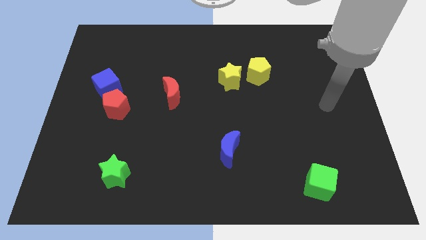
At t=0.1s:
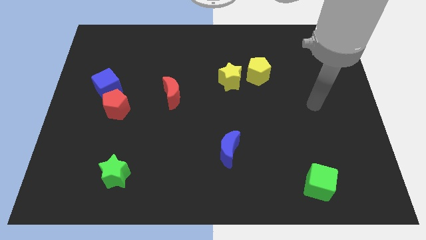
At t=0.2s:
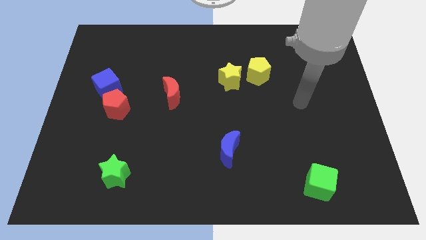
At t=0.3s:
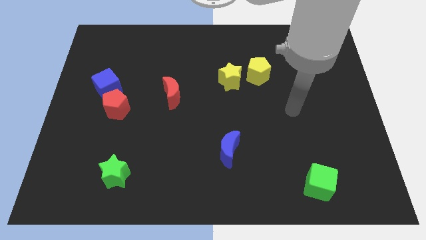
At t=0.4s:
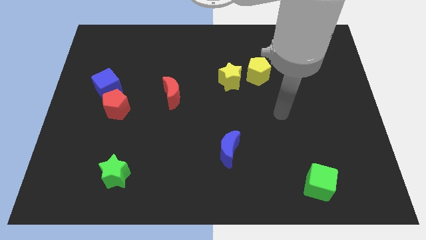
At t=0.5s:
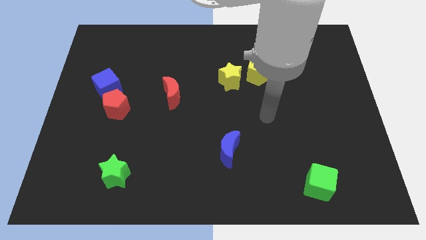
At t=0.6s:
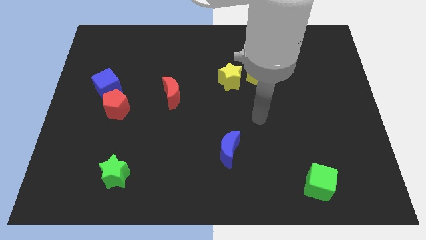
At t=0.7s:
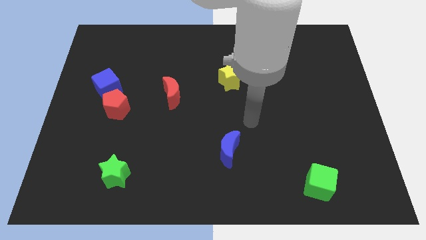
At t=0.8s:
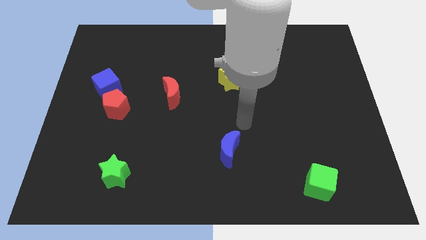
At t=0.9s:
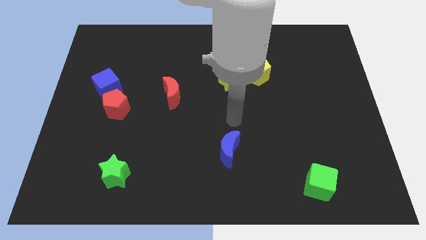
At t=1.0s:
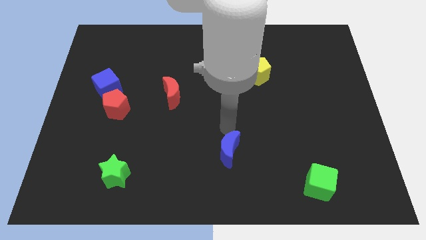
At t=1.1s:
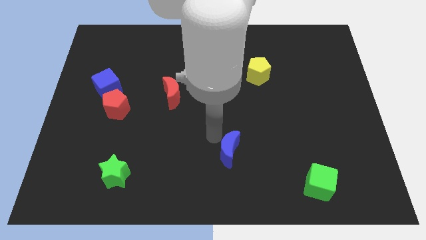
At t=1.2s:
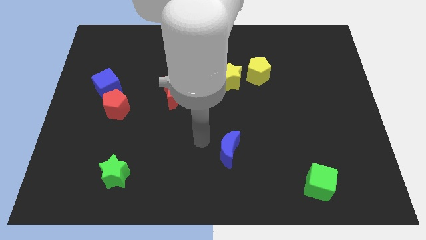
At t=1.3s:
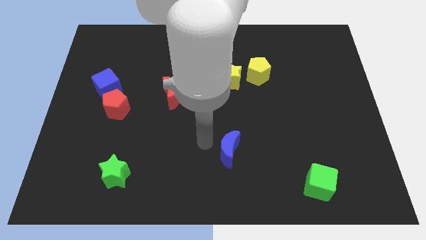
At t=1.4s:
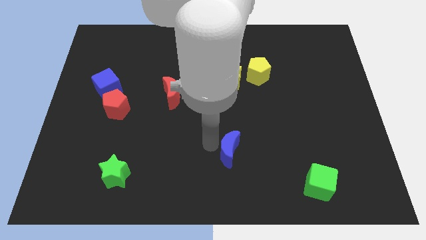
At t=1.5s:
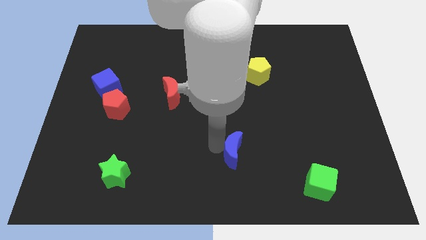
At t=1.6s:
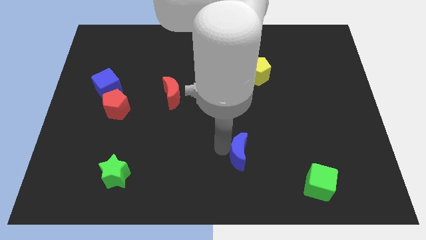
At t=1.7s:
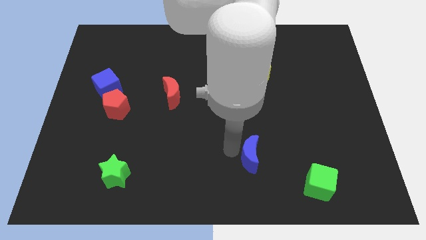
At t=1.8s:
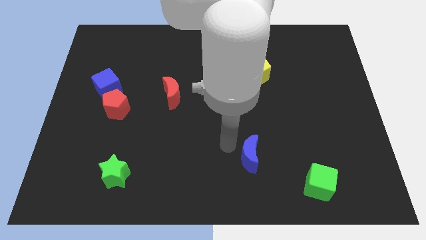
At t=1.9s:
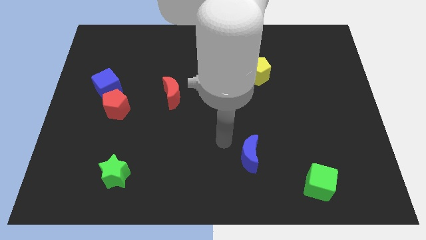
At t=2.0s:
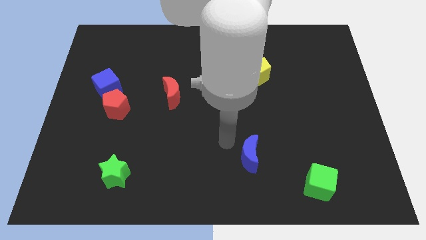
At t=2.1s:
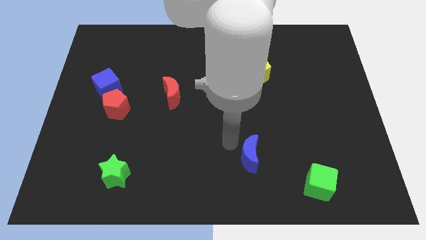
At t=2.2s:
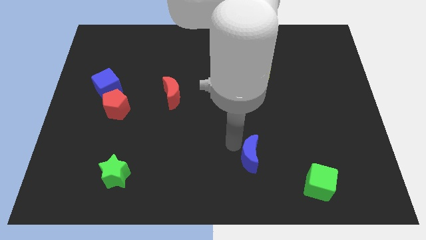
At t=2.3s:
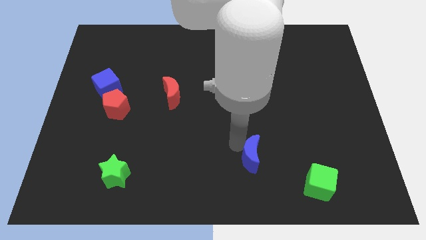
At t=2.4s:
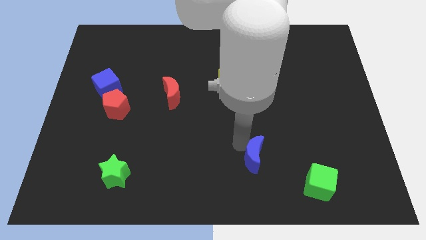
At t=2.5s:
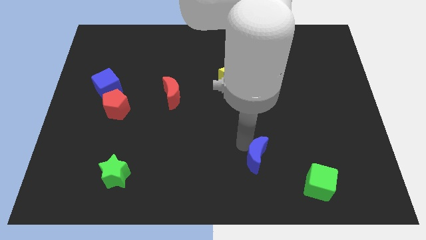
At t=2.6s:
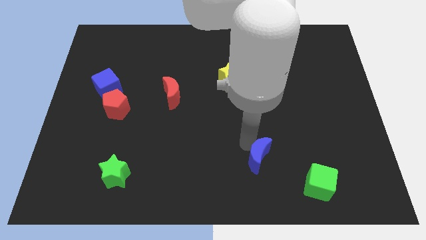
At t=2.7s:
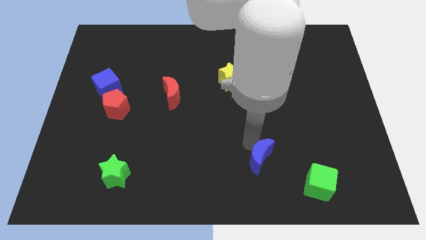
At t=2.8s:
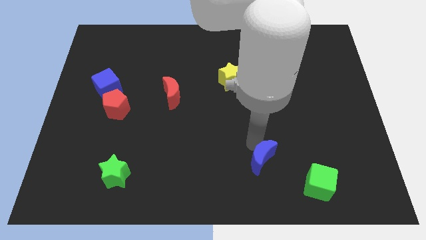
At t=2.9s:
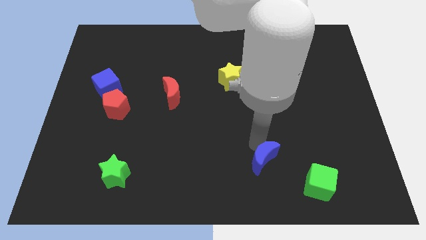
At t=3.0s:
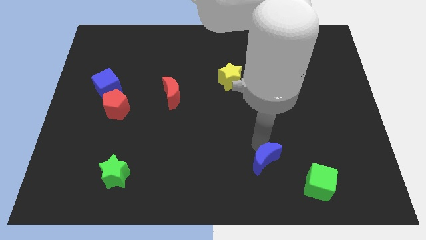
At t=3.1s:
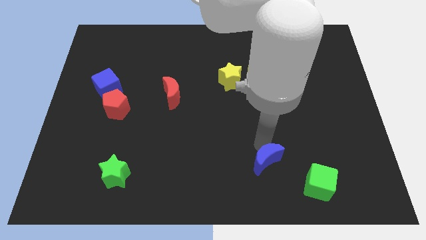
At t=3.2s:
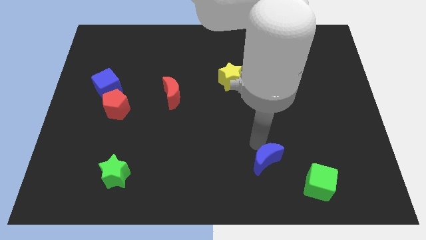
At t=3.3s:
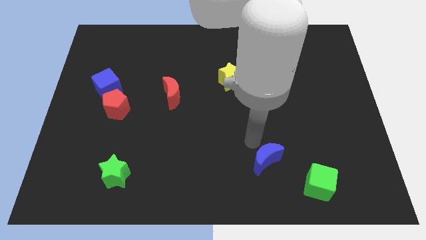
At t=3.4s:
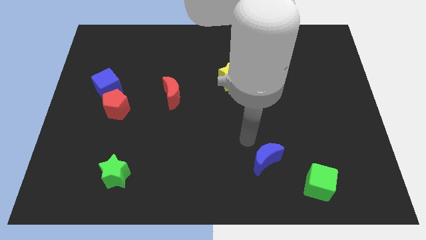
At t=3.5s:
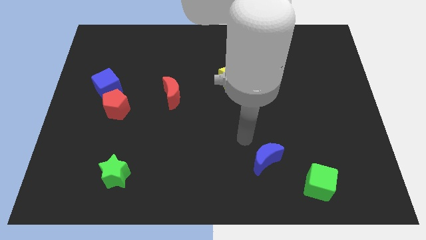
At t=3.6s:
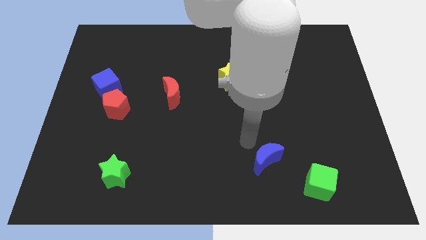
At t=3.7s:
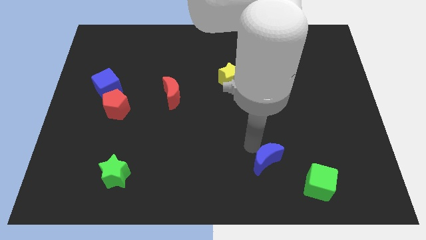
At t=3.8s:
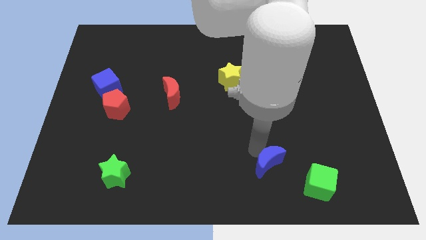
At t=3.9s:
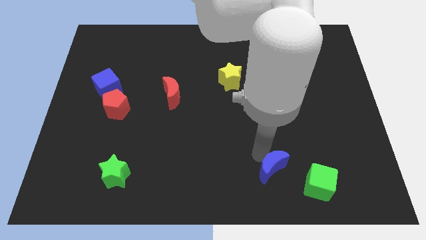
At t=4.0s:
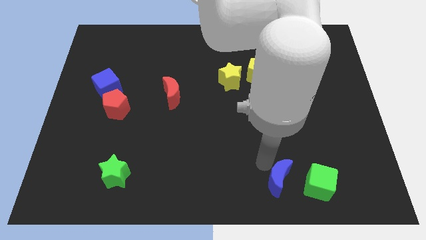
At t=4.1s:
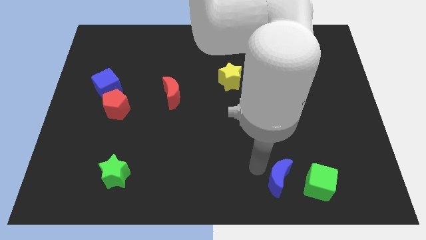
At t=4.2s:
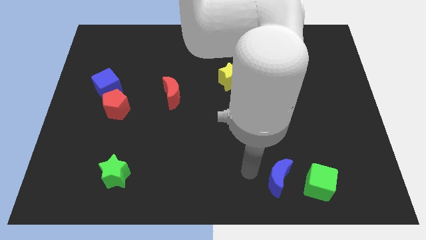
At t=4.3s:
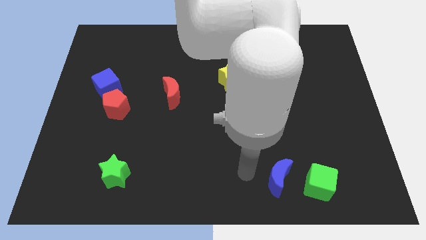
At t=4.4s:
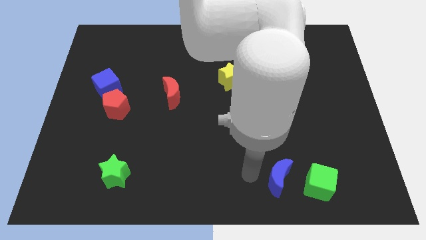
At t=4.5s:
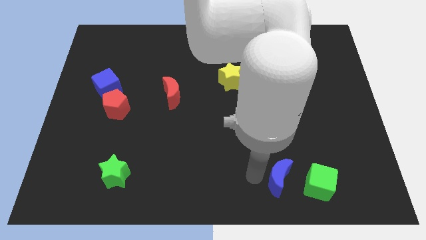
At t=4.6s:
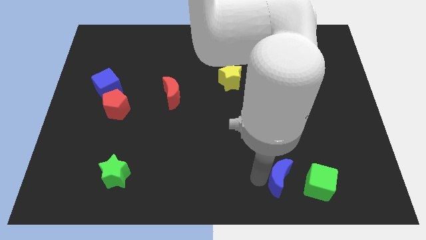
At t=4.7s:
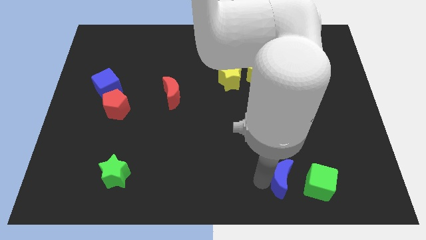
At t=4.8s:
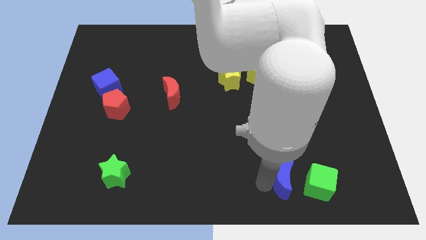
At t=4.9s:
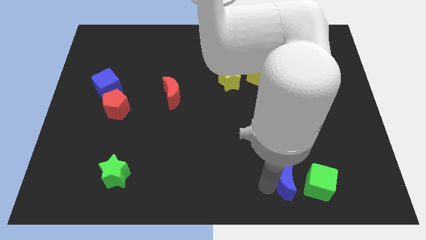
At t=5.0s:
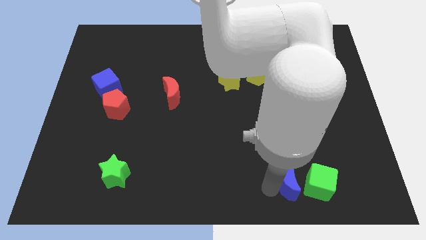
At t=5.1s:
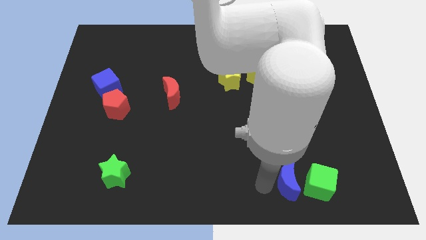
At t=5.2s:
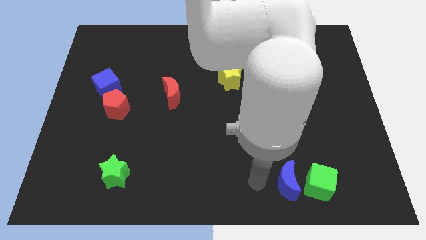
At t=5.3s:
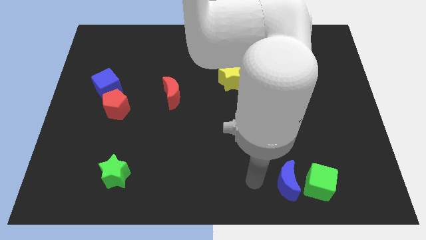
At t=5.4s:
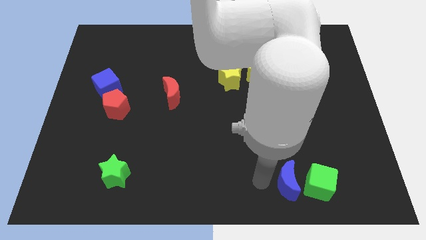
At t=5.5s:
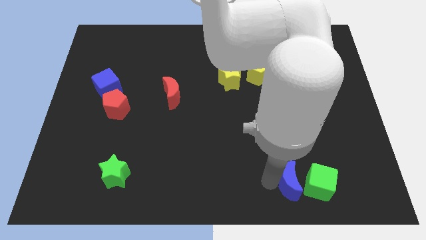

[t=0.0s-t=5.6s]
move the blue moon to the green cube

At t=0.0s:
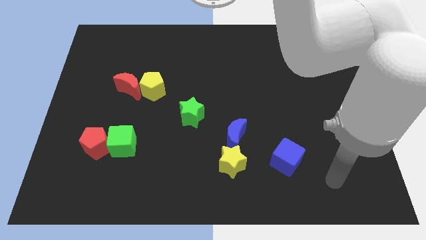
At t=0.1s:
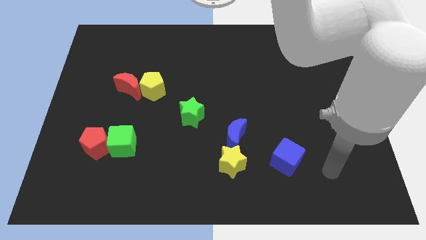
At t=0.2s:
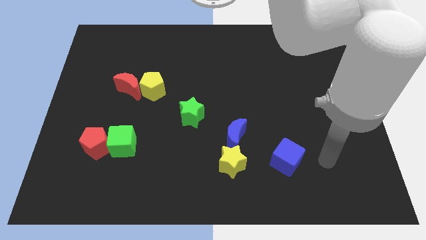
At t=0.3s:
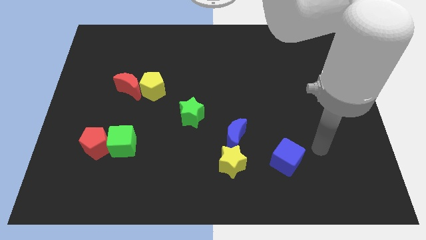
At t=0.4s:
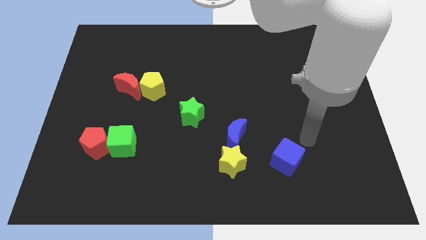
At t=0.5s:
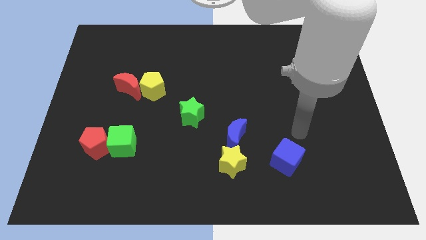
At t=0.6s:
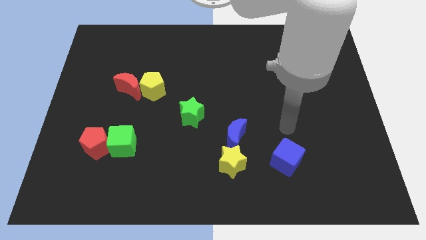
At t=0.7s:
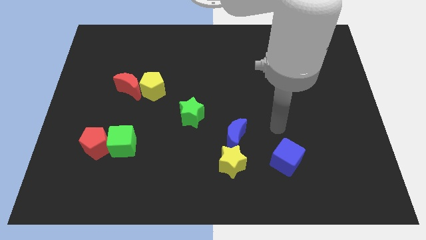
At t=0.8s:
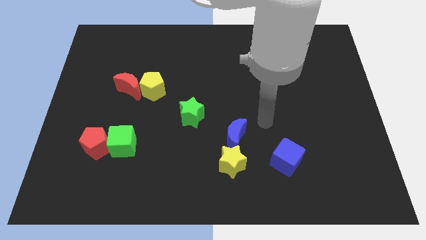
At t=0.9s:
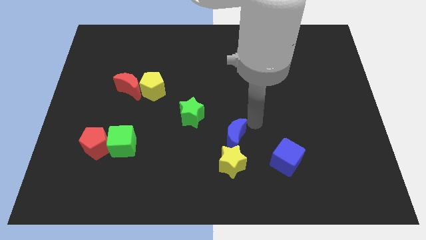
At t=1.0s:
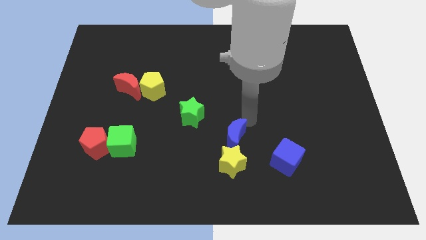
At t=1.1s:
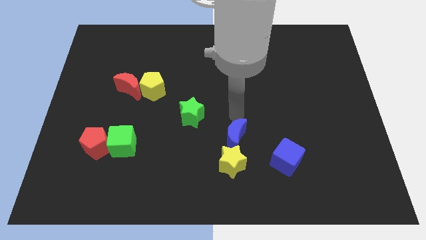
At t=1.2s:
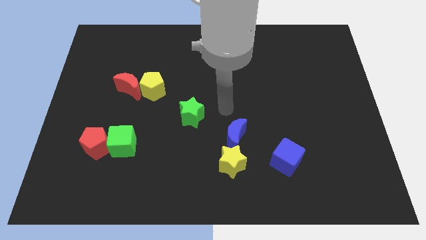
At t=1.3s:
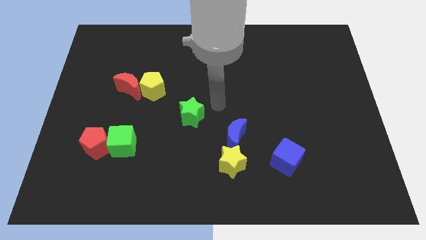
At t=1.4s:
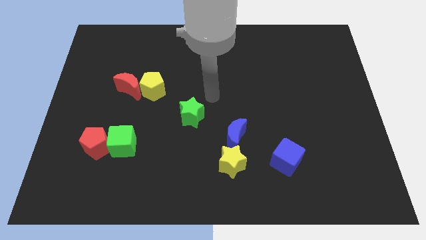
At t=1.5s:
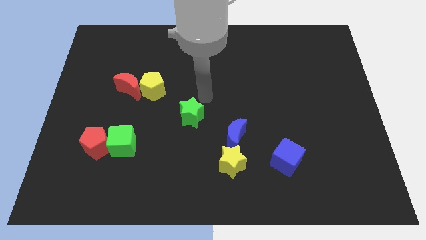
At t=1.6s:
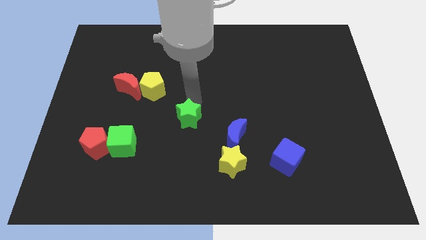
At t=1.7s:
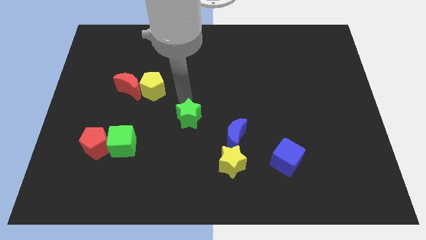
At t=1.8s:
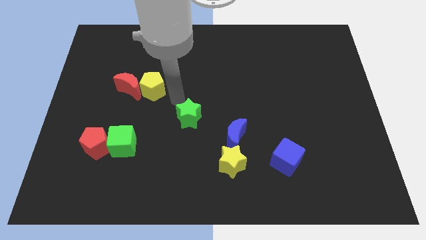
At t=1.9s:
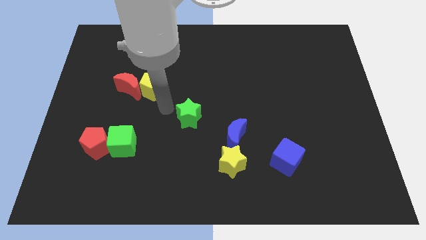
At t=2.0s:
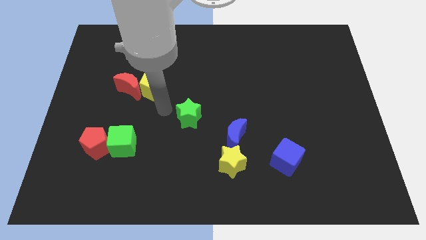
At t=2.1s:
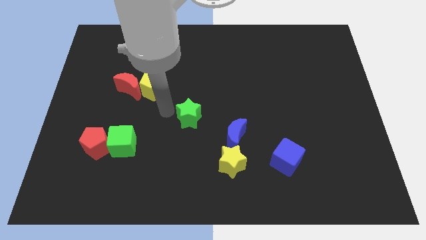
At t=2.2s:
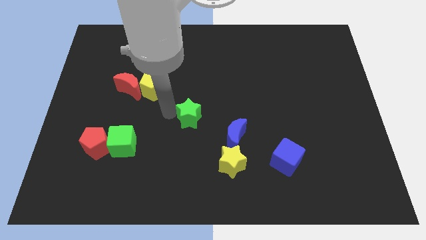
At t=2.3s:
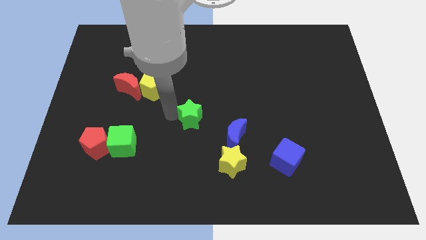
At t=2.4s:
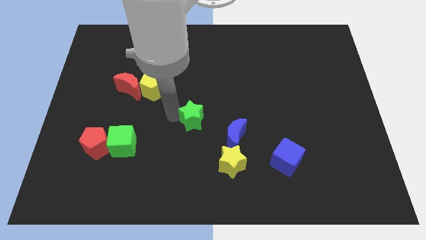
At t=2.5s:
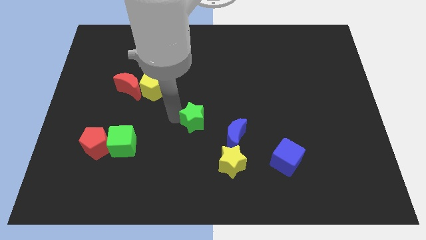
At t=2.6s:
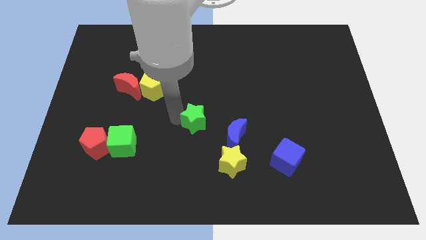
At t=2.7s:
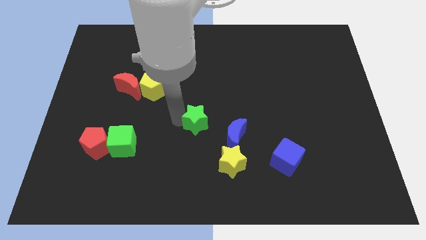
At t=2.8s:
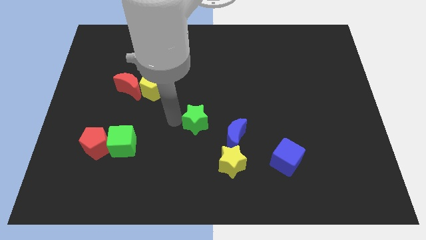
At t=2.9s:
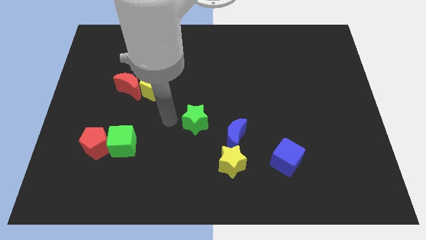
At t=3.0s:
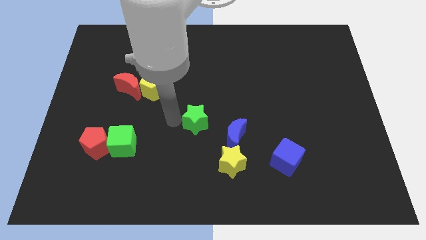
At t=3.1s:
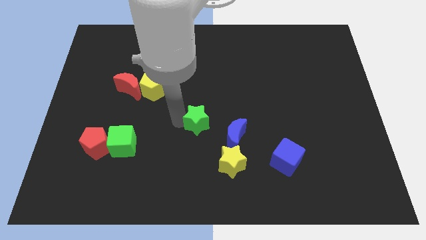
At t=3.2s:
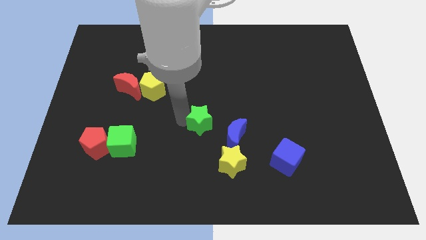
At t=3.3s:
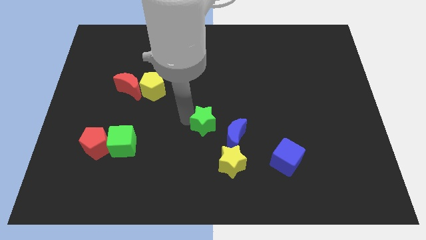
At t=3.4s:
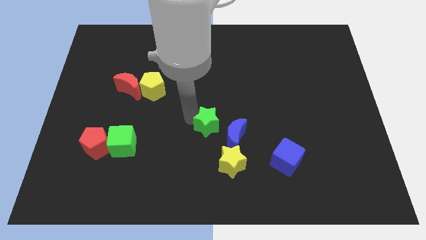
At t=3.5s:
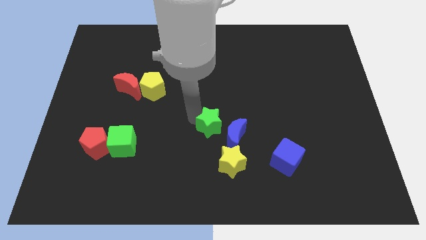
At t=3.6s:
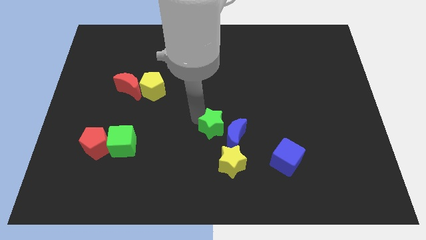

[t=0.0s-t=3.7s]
push the green star next to the blue moon
